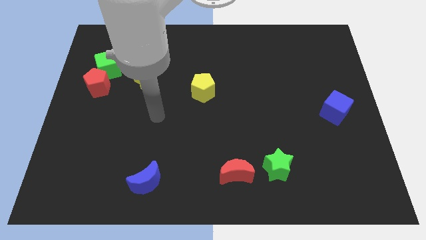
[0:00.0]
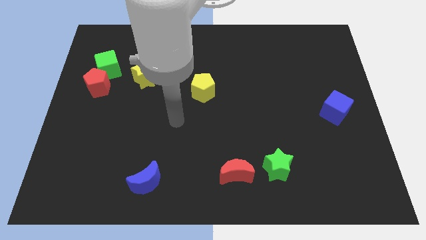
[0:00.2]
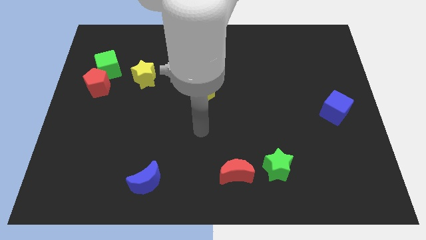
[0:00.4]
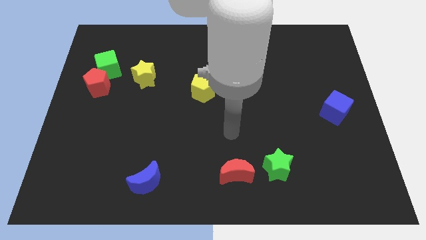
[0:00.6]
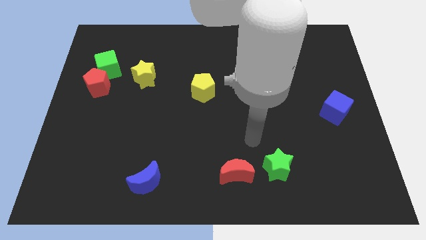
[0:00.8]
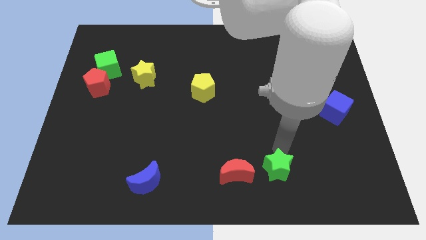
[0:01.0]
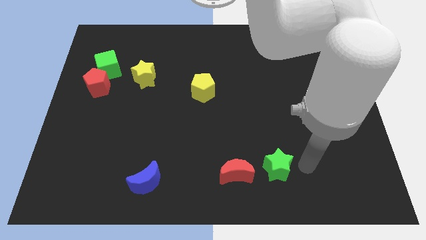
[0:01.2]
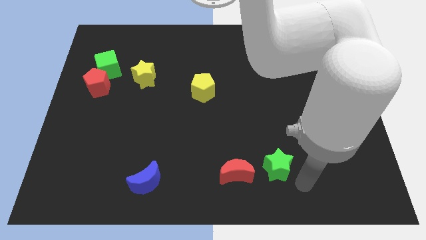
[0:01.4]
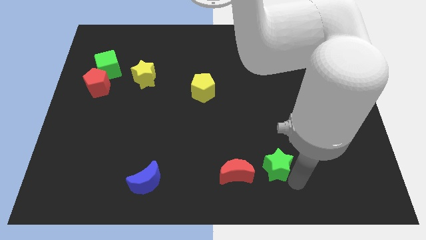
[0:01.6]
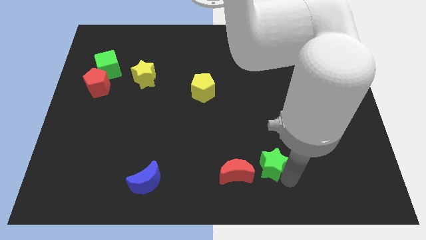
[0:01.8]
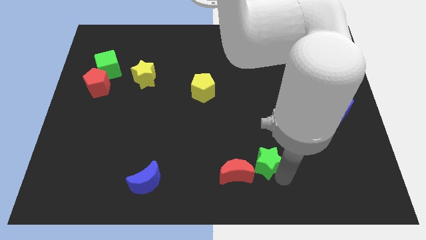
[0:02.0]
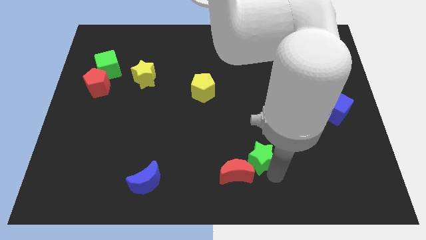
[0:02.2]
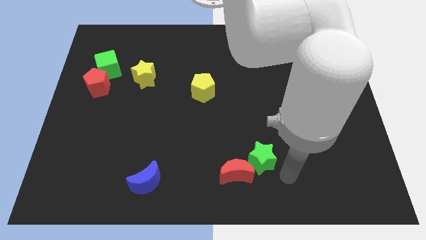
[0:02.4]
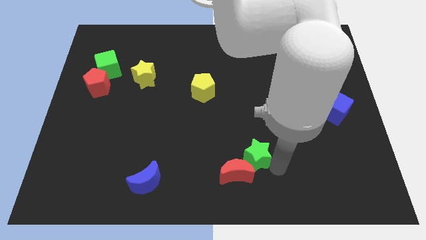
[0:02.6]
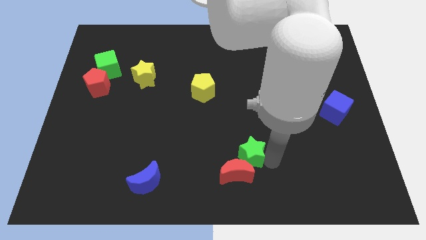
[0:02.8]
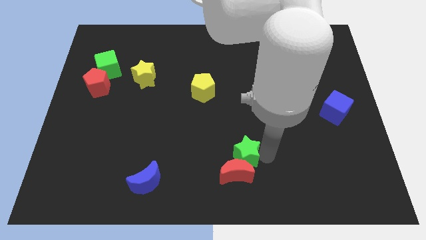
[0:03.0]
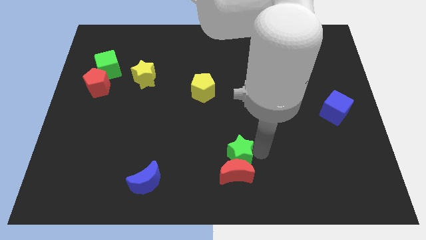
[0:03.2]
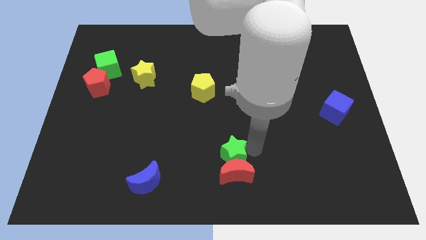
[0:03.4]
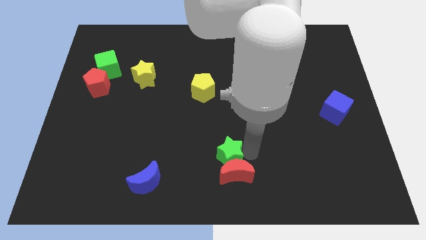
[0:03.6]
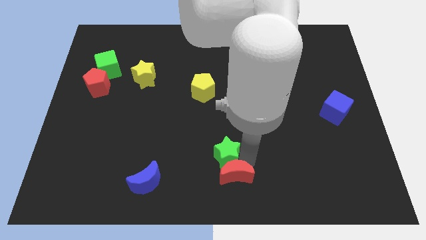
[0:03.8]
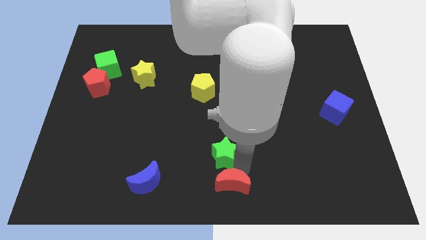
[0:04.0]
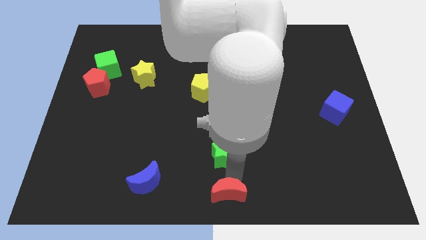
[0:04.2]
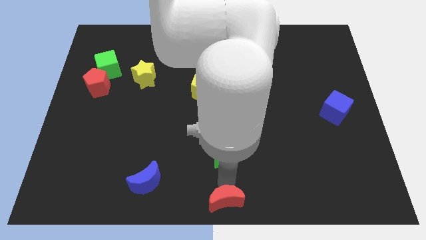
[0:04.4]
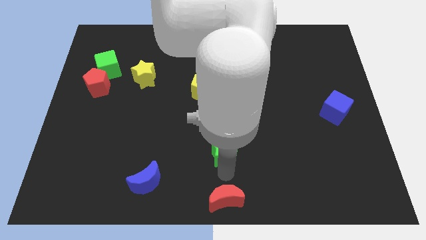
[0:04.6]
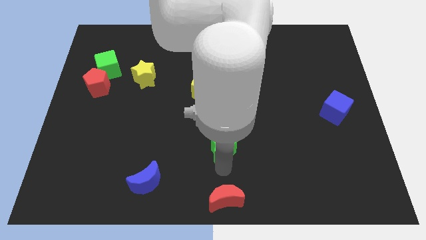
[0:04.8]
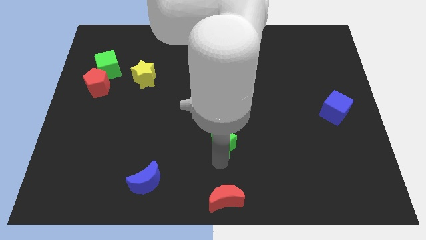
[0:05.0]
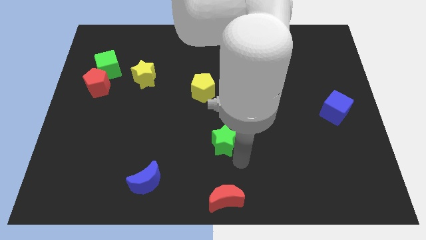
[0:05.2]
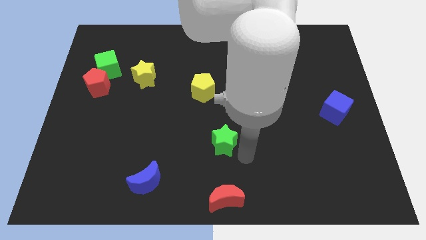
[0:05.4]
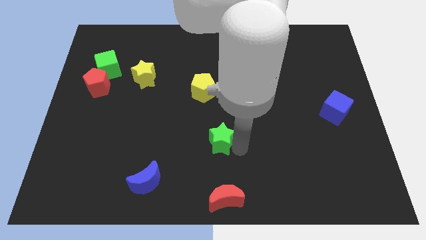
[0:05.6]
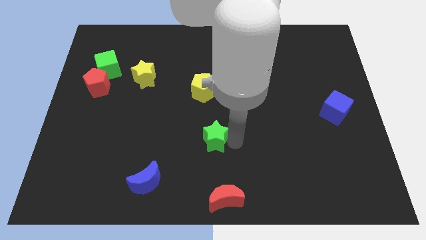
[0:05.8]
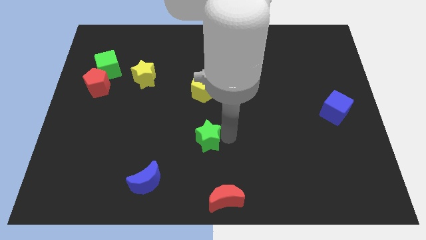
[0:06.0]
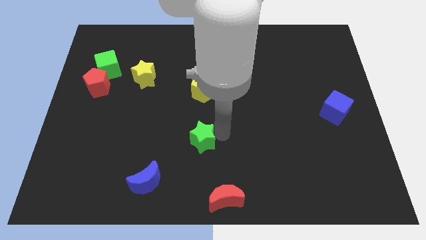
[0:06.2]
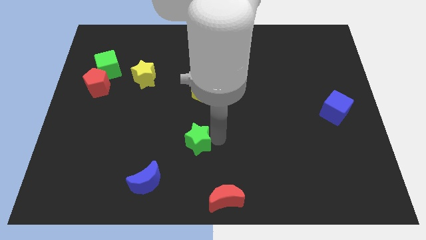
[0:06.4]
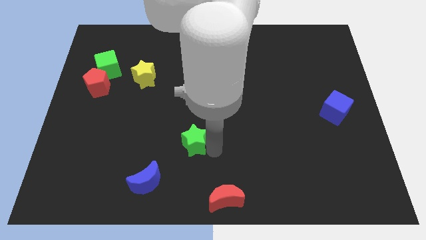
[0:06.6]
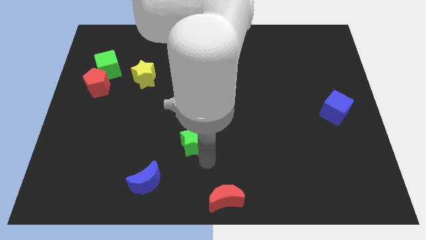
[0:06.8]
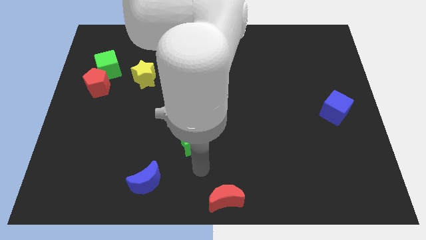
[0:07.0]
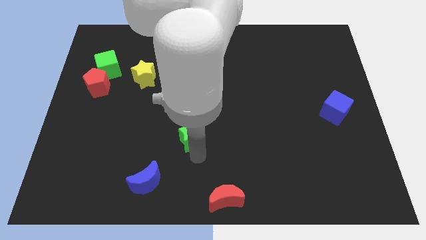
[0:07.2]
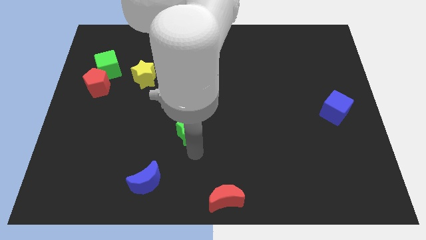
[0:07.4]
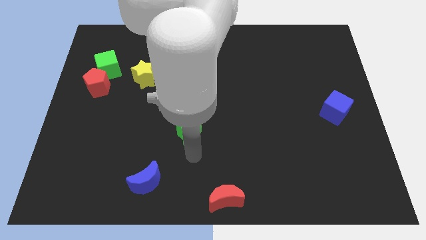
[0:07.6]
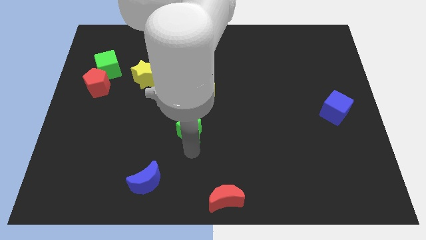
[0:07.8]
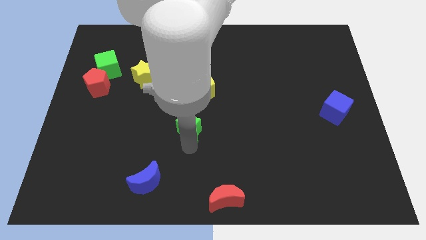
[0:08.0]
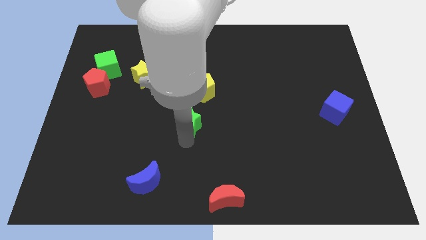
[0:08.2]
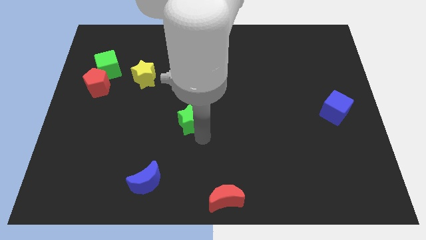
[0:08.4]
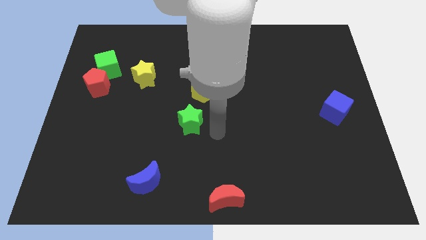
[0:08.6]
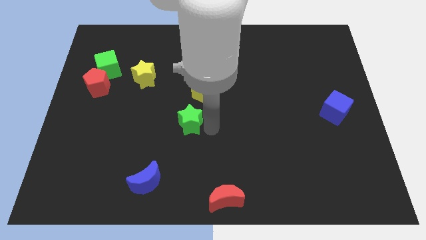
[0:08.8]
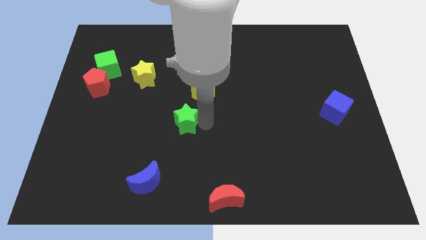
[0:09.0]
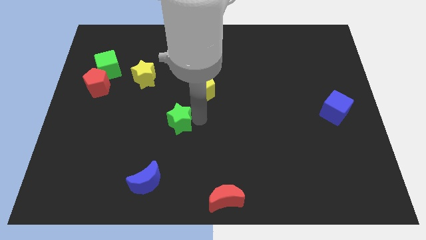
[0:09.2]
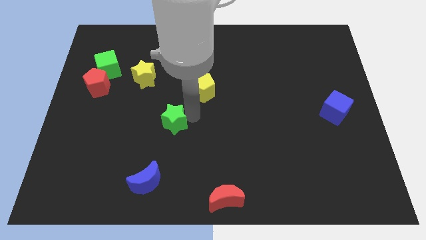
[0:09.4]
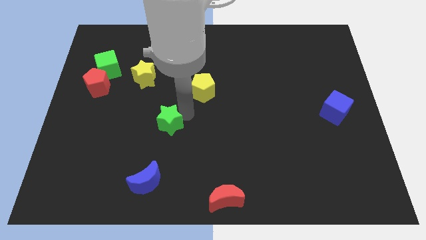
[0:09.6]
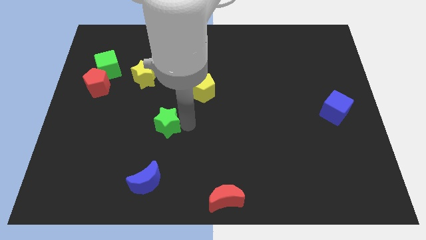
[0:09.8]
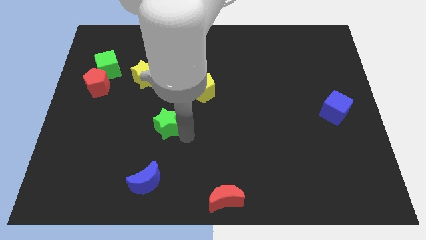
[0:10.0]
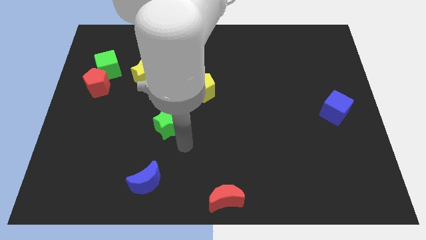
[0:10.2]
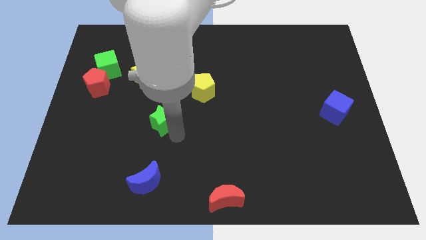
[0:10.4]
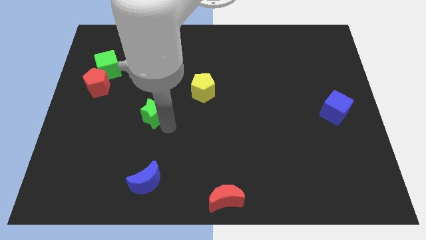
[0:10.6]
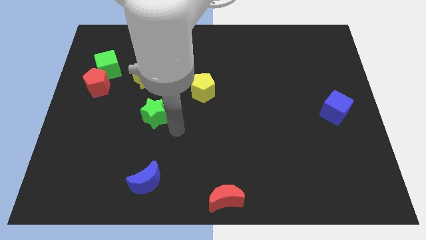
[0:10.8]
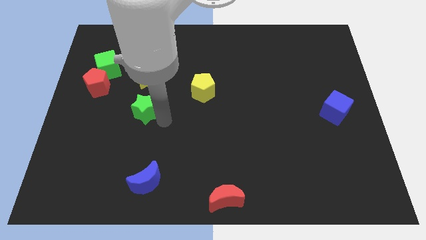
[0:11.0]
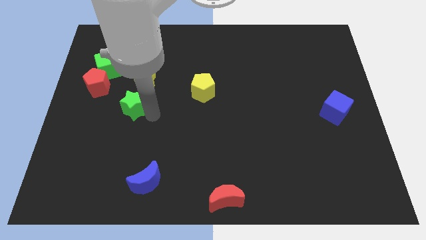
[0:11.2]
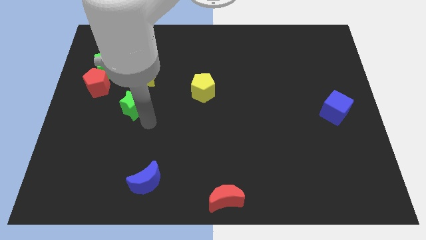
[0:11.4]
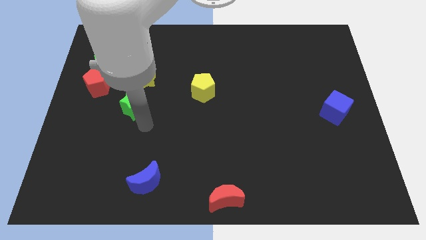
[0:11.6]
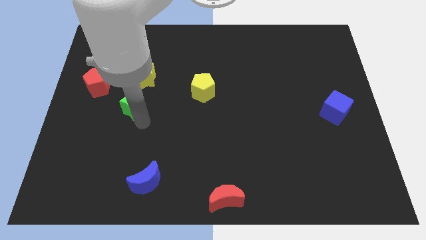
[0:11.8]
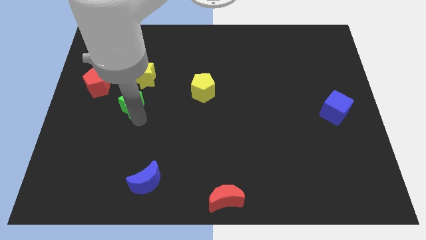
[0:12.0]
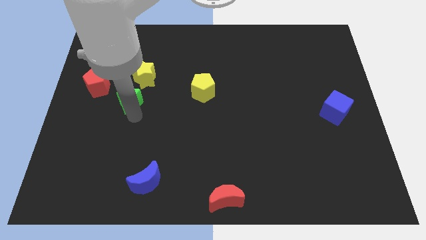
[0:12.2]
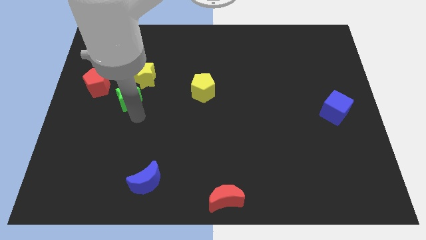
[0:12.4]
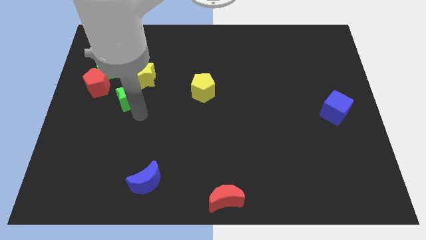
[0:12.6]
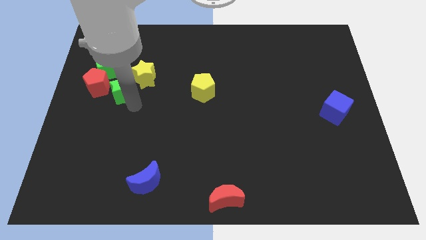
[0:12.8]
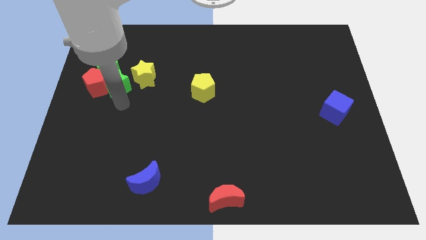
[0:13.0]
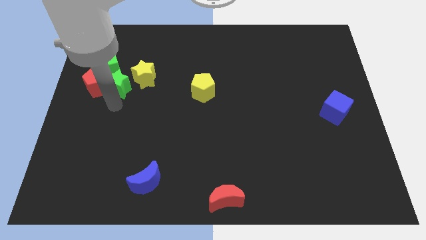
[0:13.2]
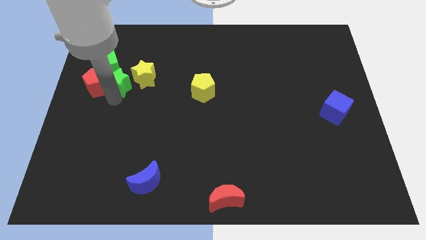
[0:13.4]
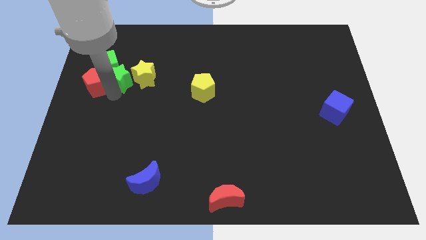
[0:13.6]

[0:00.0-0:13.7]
push the green star to the top left of the yellow star
